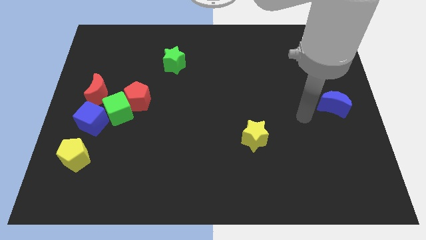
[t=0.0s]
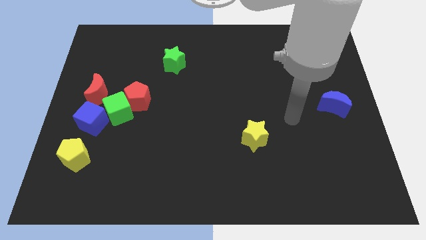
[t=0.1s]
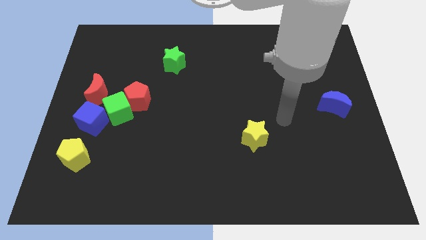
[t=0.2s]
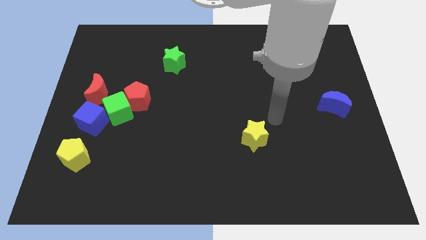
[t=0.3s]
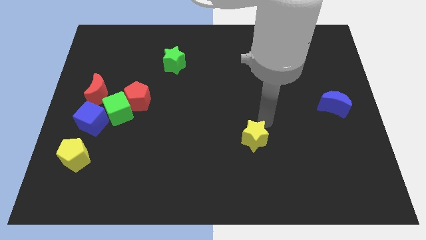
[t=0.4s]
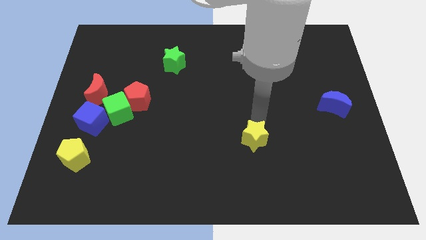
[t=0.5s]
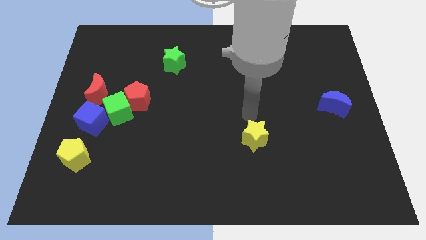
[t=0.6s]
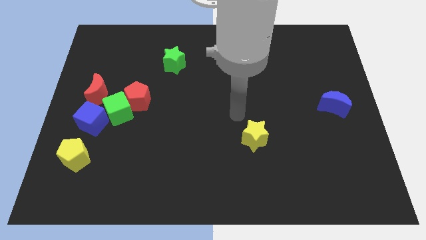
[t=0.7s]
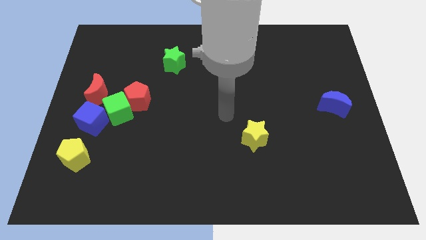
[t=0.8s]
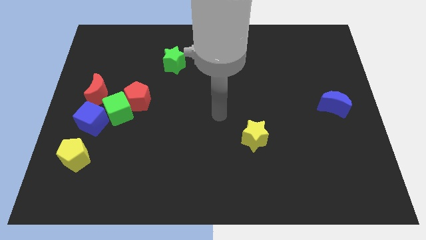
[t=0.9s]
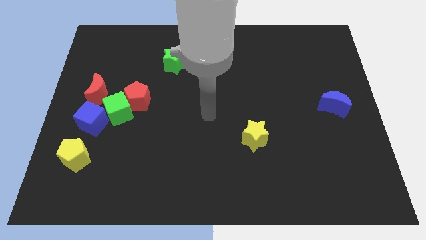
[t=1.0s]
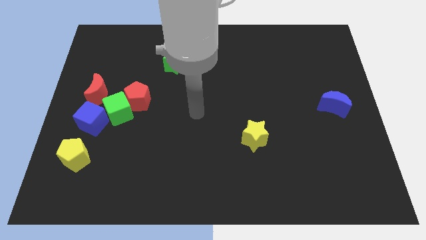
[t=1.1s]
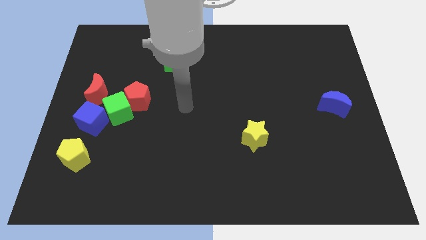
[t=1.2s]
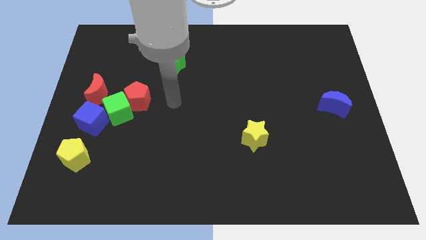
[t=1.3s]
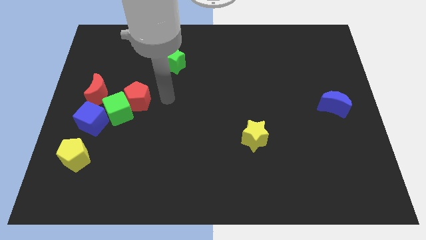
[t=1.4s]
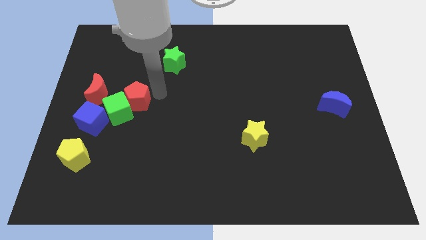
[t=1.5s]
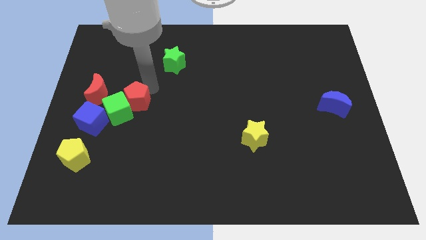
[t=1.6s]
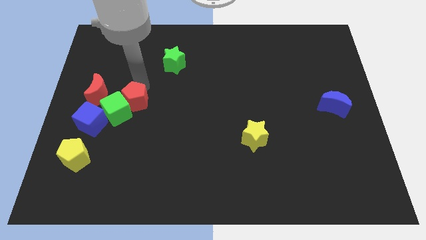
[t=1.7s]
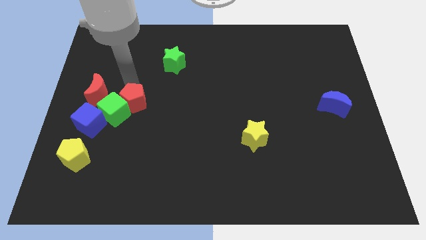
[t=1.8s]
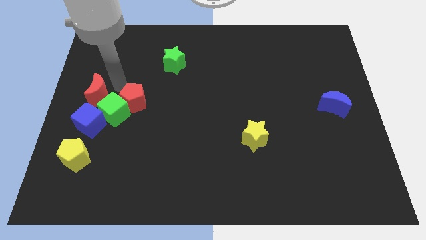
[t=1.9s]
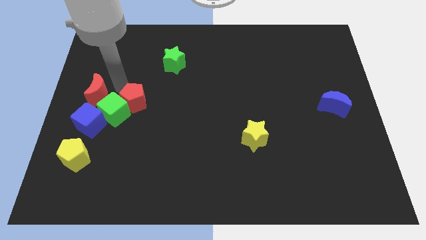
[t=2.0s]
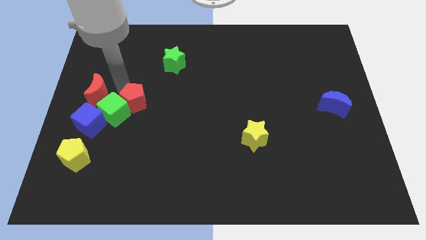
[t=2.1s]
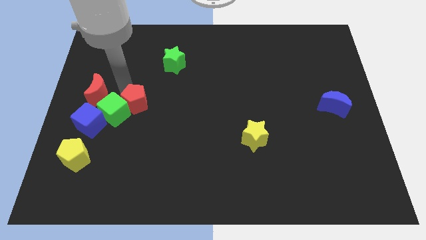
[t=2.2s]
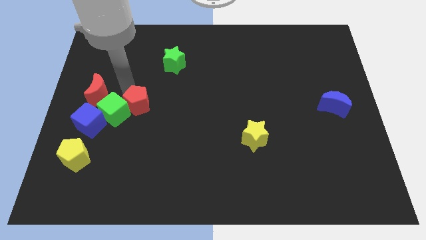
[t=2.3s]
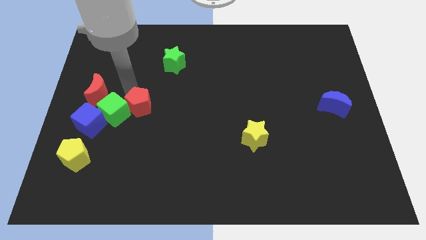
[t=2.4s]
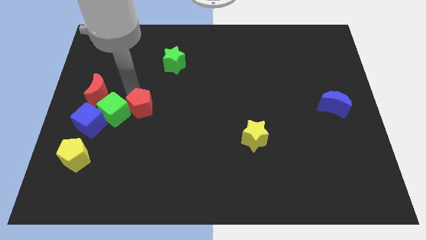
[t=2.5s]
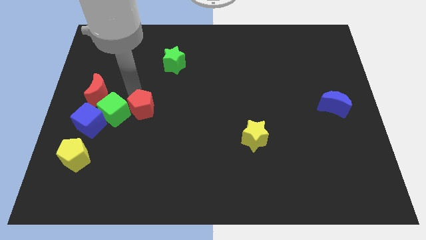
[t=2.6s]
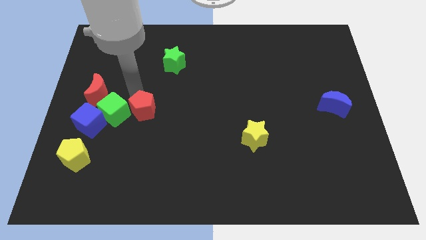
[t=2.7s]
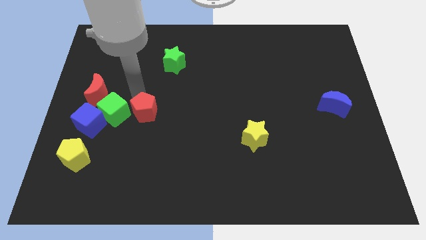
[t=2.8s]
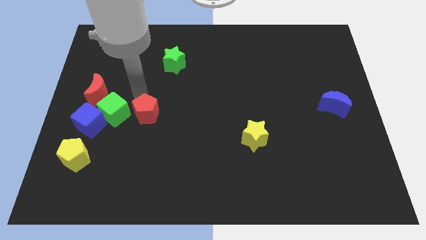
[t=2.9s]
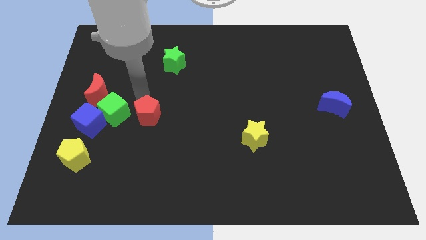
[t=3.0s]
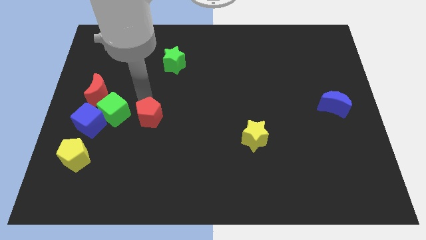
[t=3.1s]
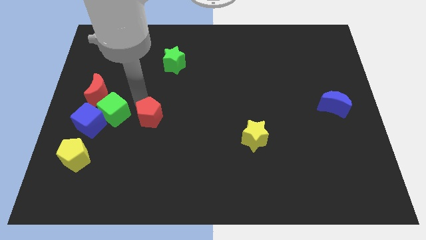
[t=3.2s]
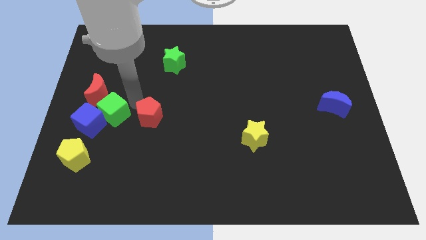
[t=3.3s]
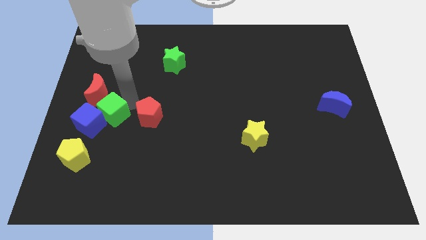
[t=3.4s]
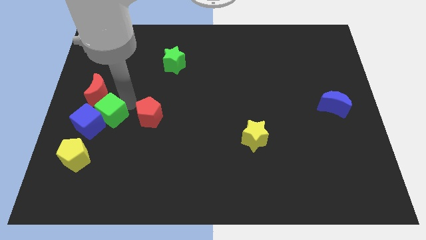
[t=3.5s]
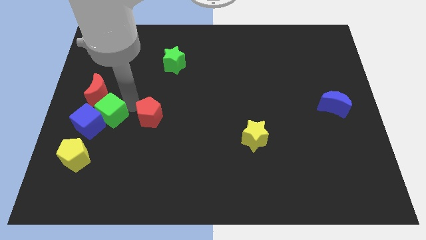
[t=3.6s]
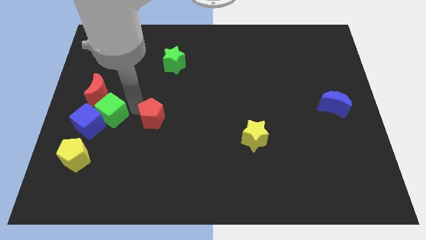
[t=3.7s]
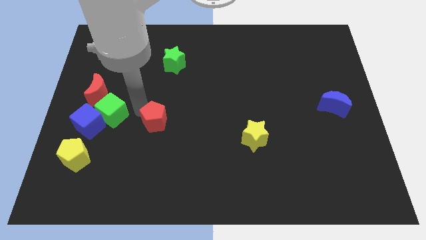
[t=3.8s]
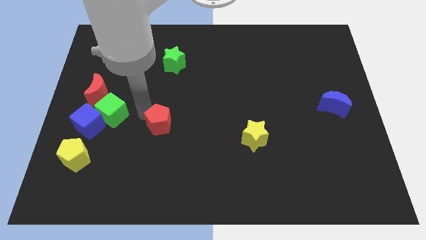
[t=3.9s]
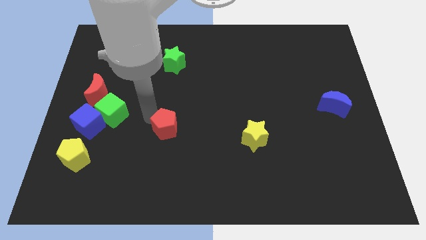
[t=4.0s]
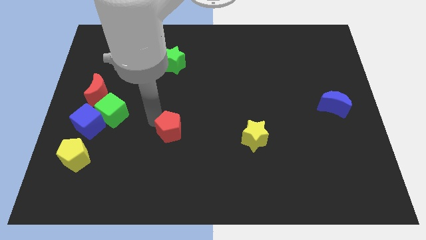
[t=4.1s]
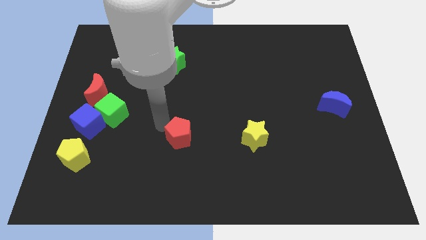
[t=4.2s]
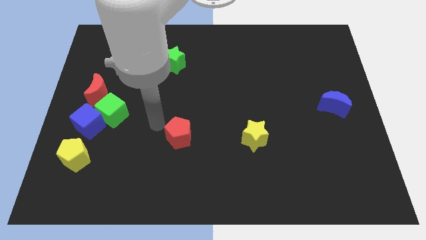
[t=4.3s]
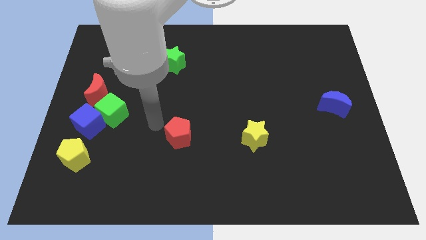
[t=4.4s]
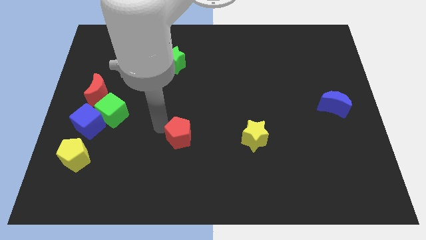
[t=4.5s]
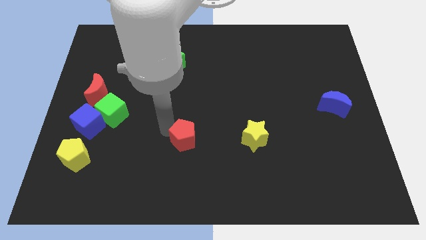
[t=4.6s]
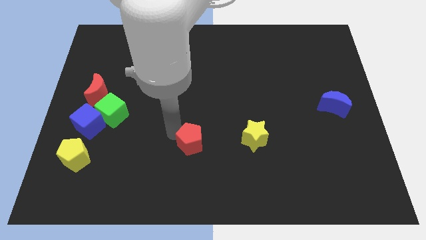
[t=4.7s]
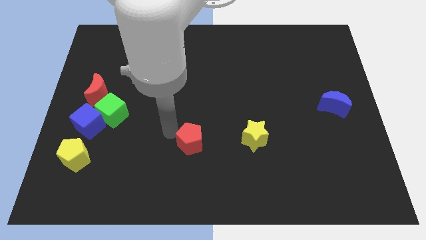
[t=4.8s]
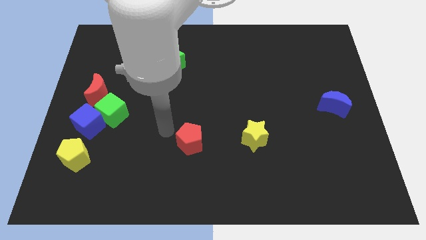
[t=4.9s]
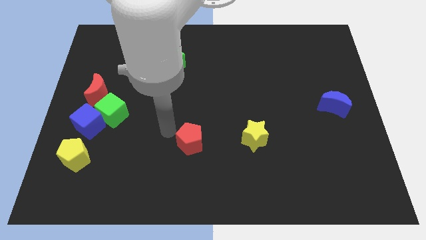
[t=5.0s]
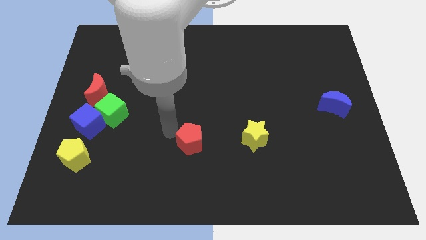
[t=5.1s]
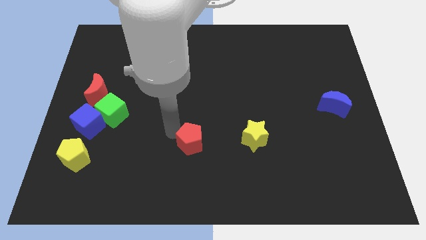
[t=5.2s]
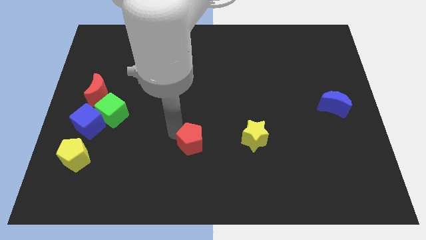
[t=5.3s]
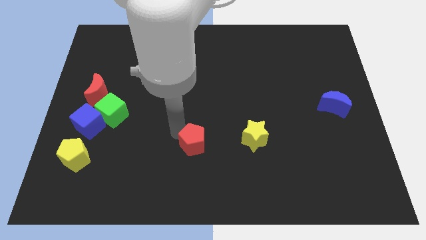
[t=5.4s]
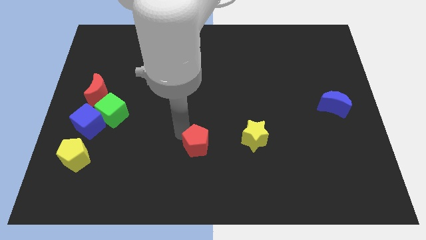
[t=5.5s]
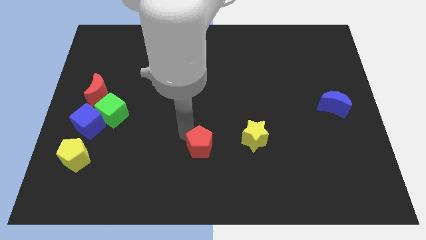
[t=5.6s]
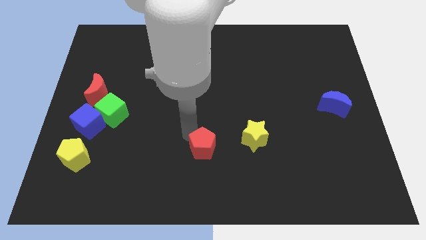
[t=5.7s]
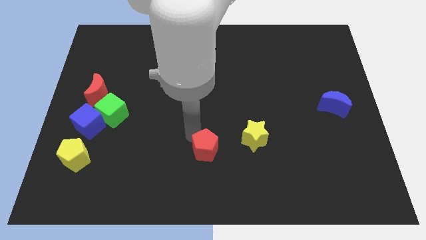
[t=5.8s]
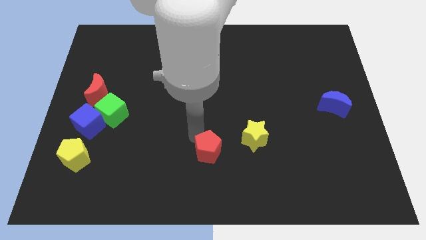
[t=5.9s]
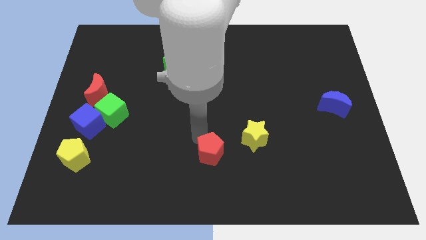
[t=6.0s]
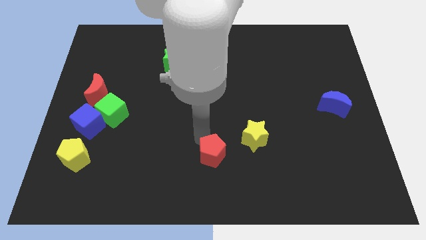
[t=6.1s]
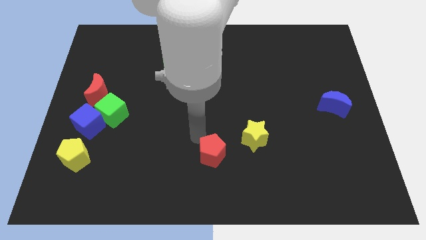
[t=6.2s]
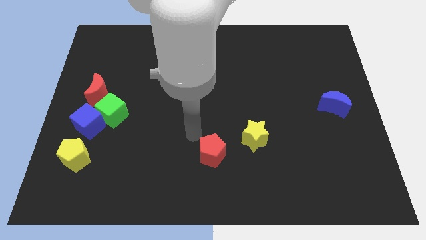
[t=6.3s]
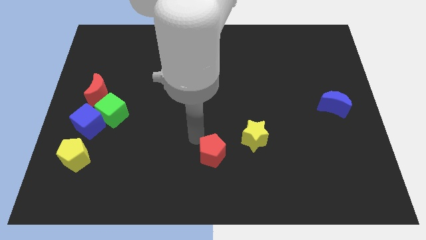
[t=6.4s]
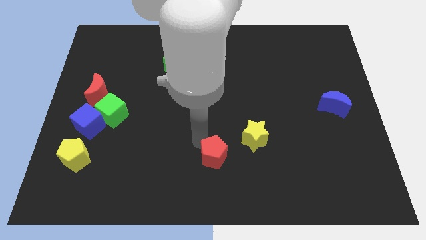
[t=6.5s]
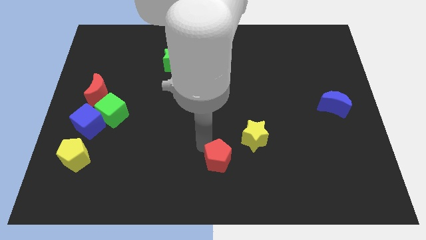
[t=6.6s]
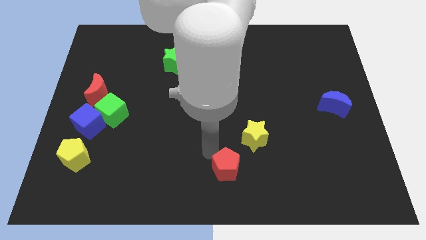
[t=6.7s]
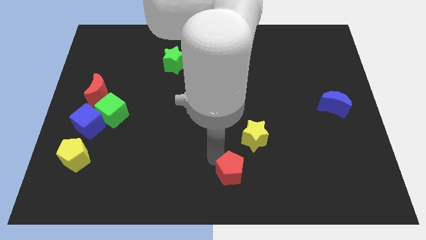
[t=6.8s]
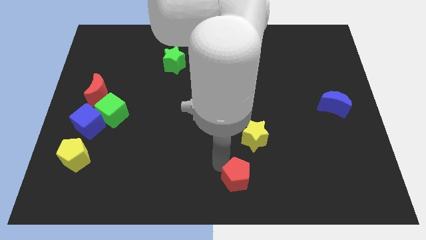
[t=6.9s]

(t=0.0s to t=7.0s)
move the red pentagon below the yellow star
